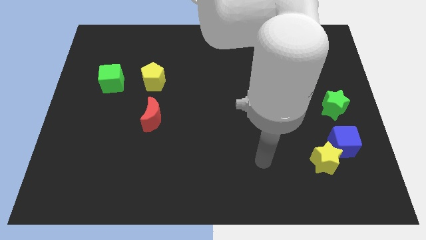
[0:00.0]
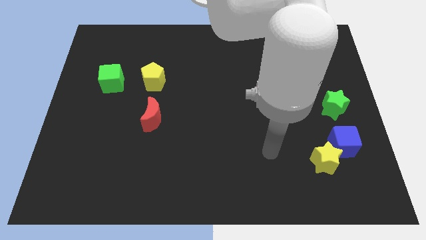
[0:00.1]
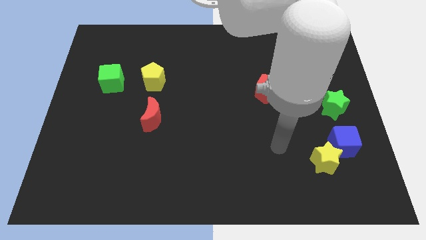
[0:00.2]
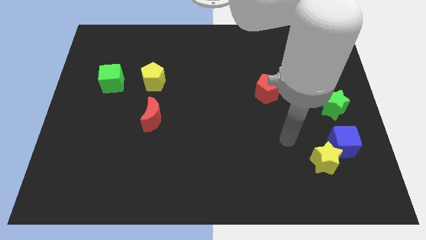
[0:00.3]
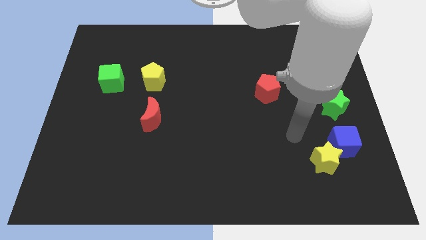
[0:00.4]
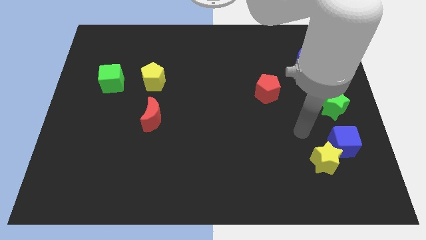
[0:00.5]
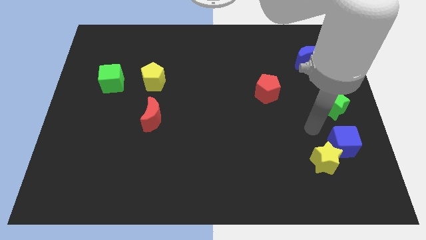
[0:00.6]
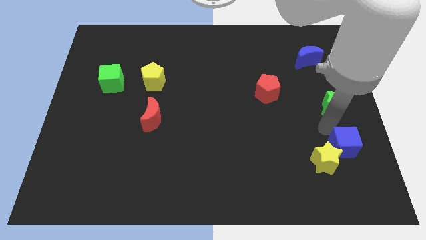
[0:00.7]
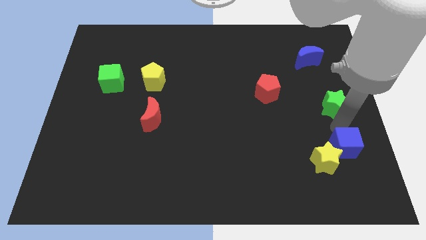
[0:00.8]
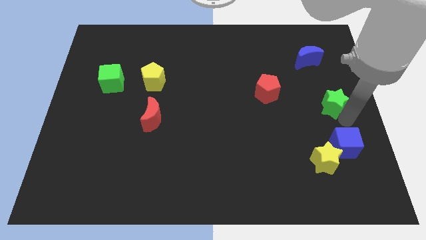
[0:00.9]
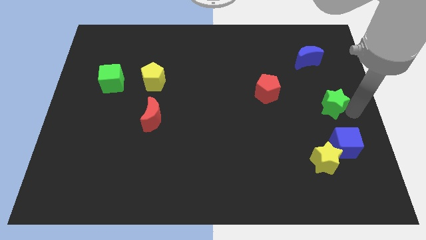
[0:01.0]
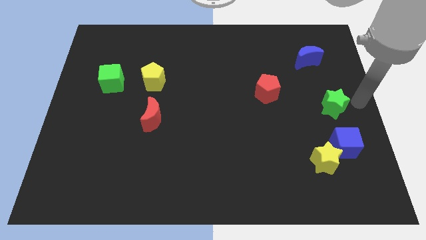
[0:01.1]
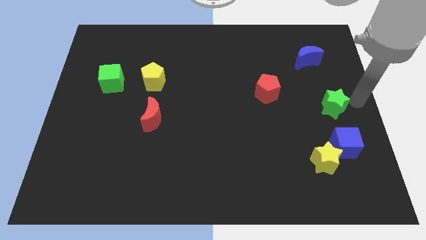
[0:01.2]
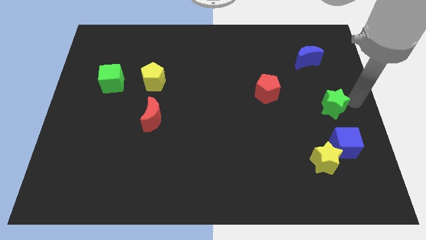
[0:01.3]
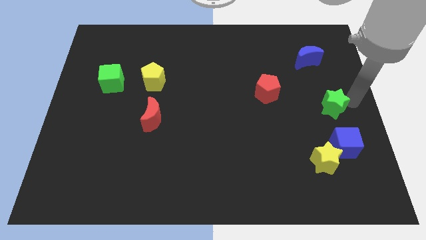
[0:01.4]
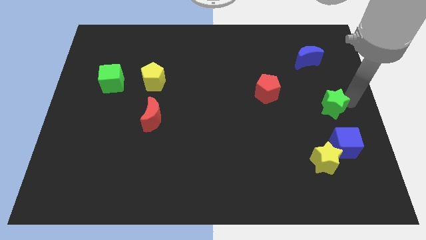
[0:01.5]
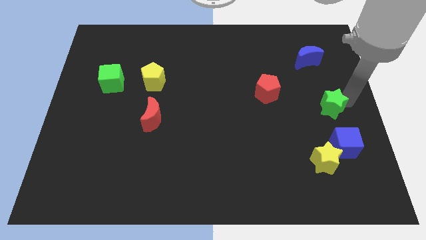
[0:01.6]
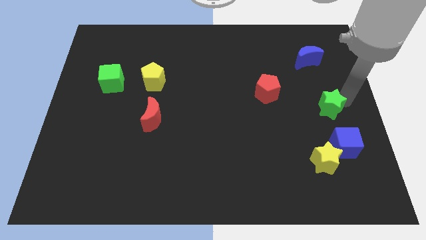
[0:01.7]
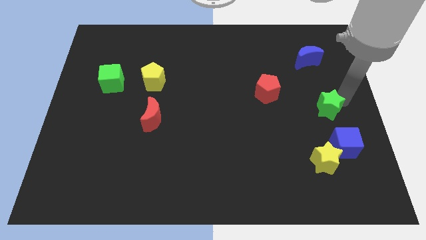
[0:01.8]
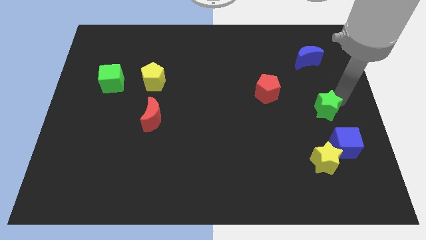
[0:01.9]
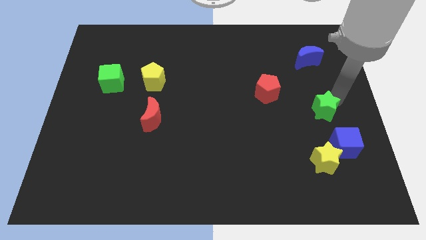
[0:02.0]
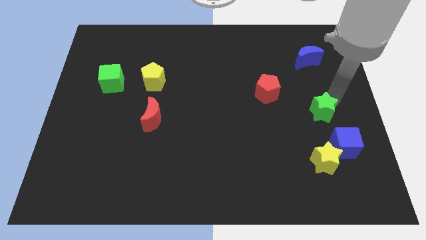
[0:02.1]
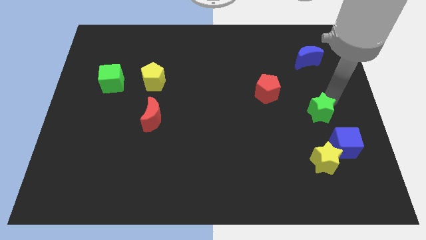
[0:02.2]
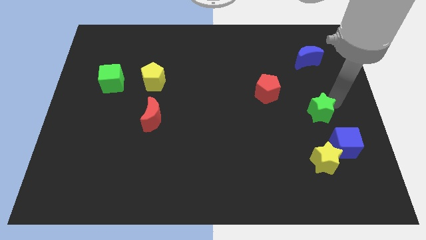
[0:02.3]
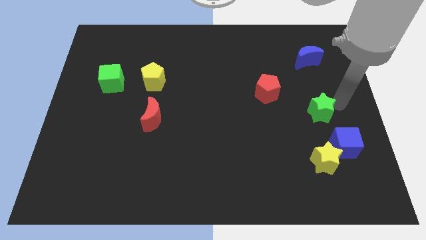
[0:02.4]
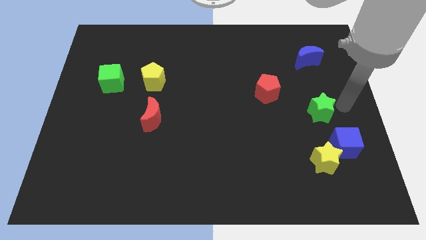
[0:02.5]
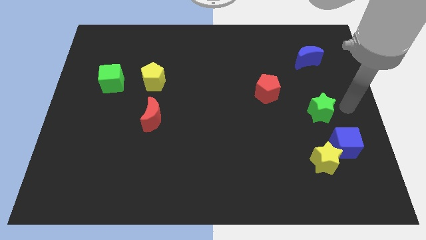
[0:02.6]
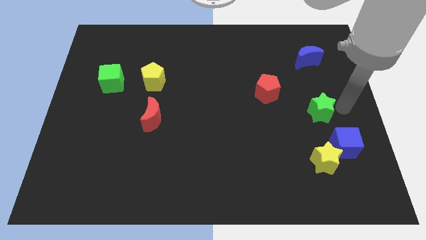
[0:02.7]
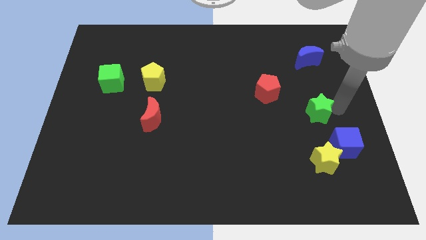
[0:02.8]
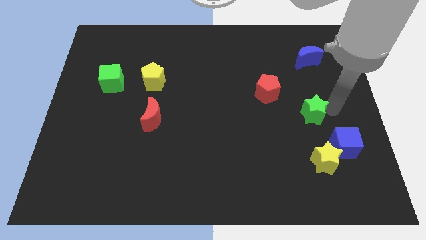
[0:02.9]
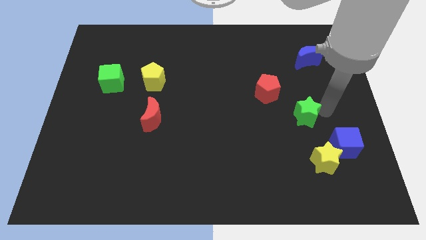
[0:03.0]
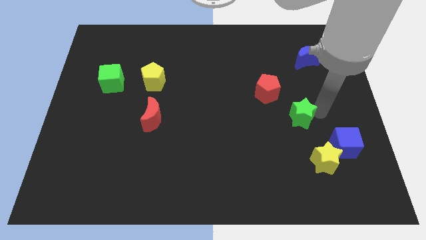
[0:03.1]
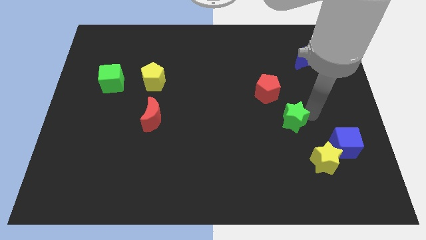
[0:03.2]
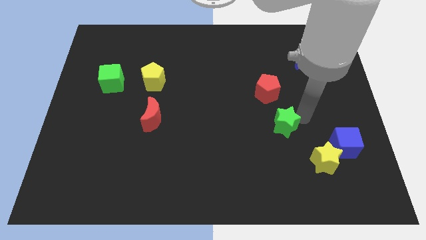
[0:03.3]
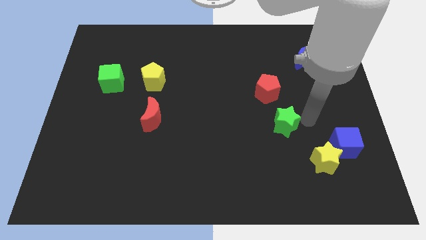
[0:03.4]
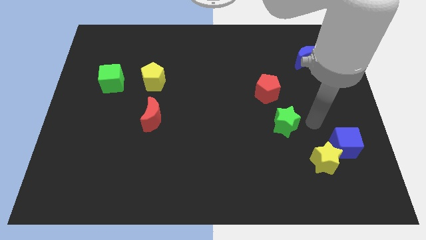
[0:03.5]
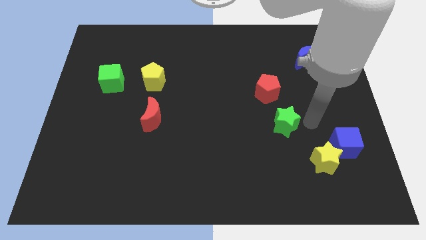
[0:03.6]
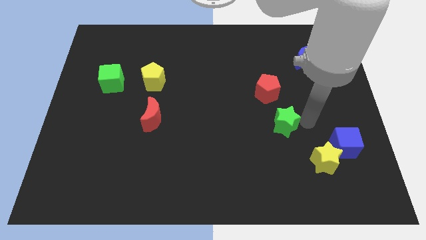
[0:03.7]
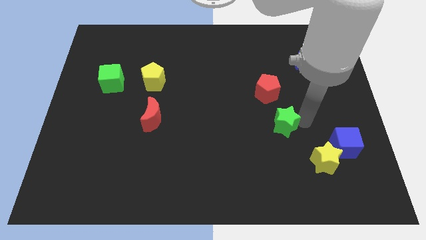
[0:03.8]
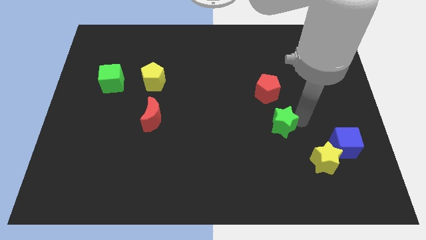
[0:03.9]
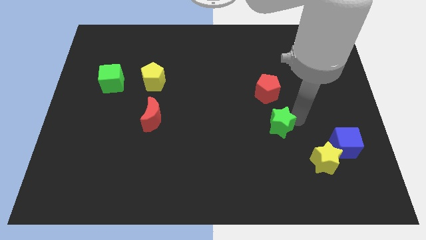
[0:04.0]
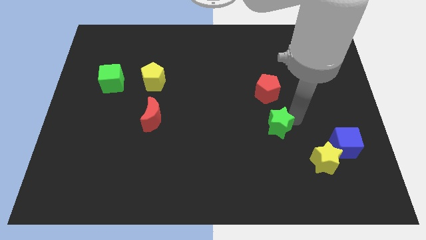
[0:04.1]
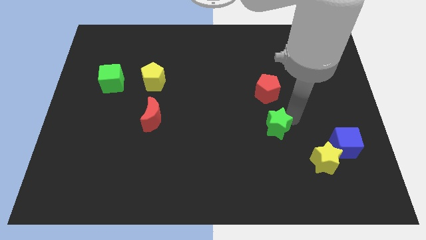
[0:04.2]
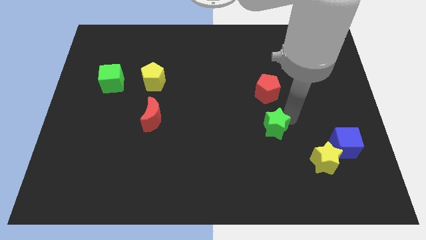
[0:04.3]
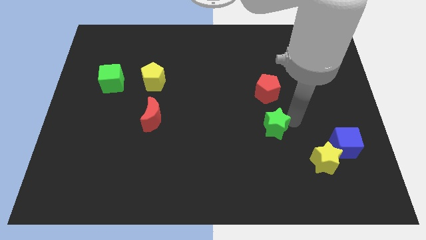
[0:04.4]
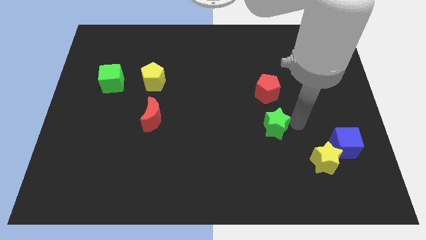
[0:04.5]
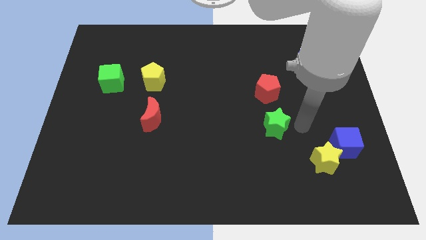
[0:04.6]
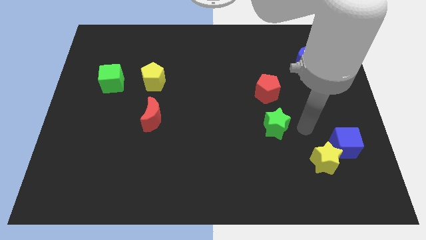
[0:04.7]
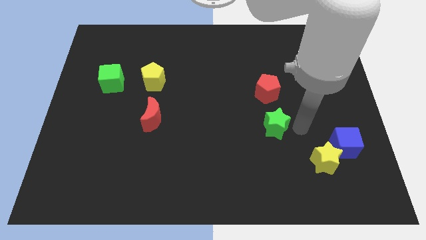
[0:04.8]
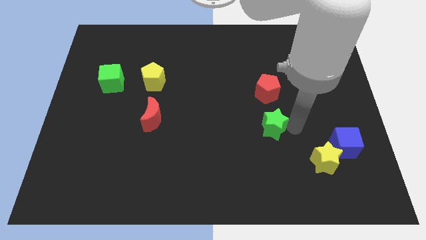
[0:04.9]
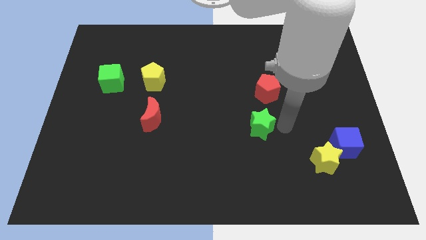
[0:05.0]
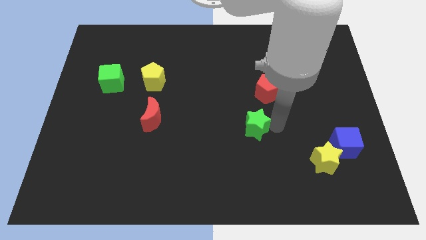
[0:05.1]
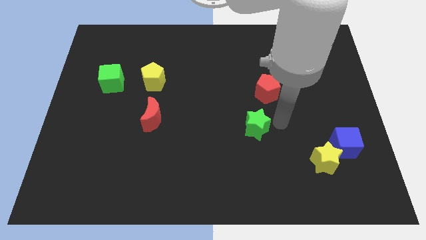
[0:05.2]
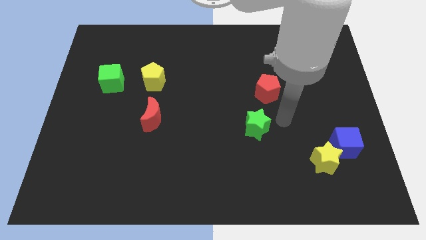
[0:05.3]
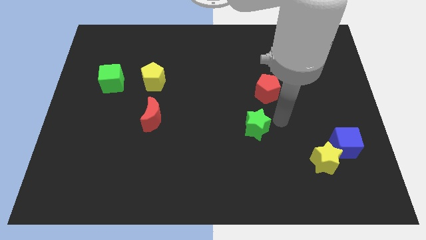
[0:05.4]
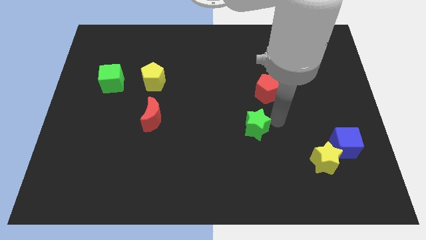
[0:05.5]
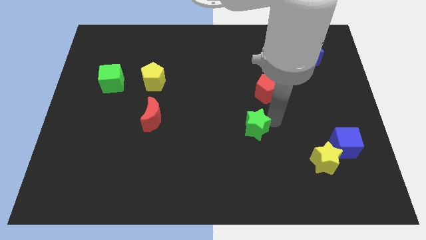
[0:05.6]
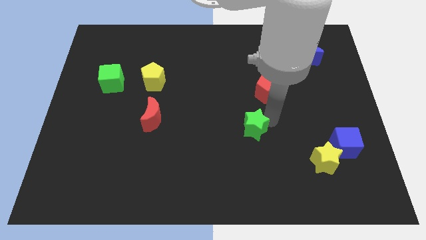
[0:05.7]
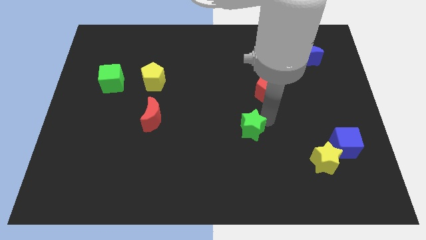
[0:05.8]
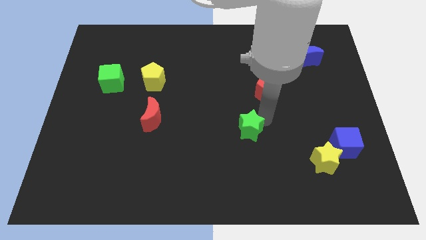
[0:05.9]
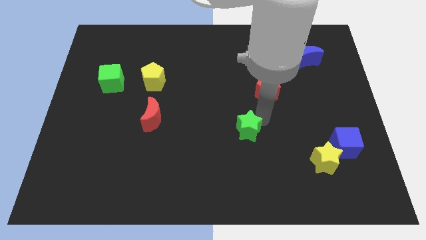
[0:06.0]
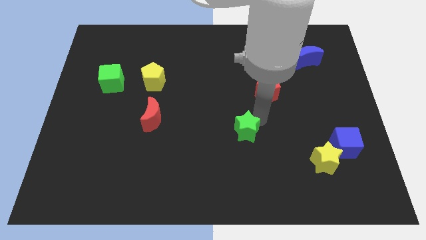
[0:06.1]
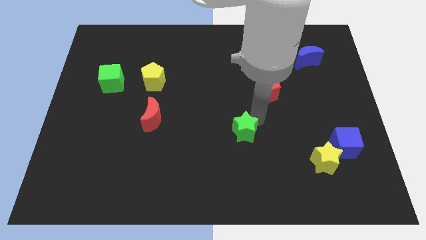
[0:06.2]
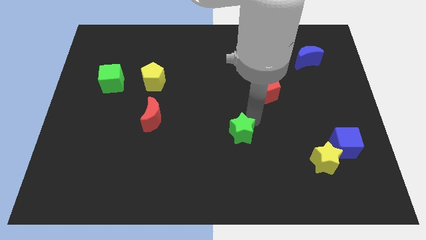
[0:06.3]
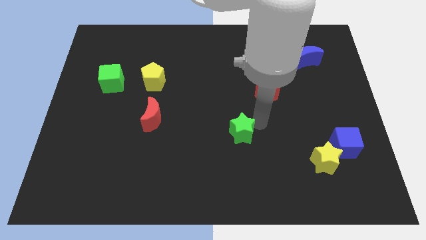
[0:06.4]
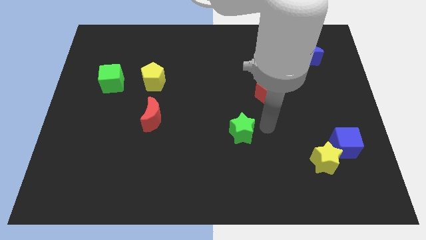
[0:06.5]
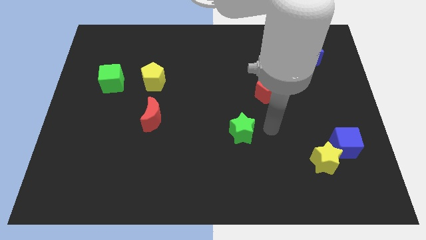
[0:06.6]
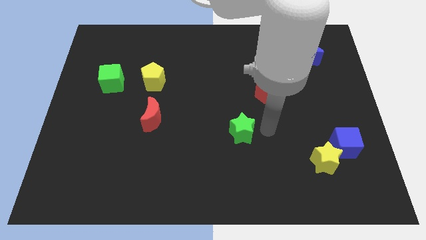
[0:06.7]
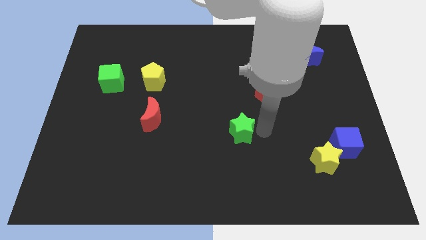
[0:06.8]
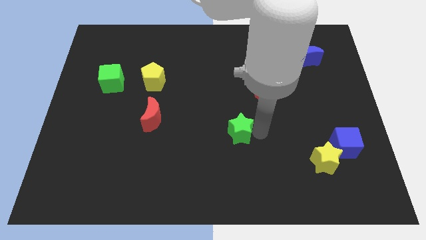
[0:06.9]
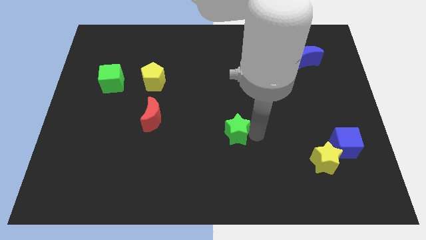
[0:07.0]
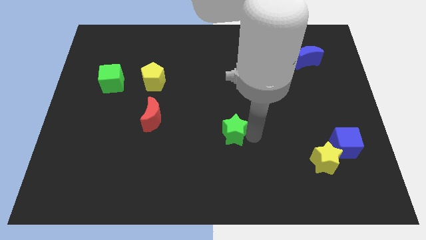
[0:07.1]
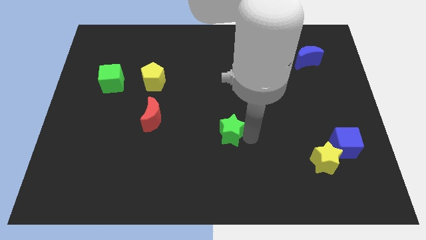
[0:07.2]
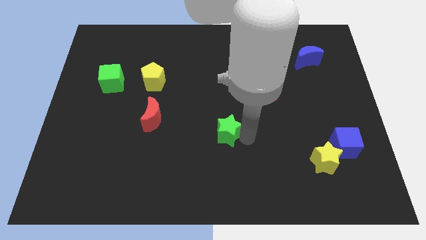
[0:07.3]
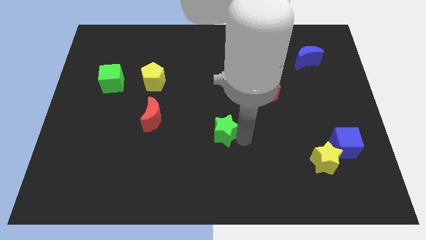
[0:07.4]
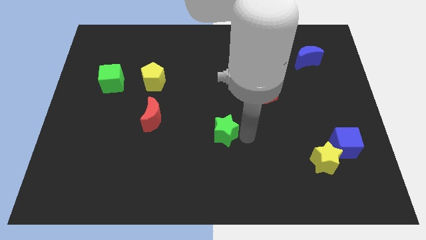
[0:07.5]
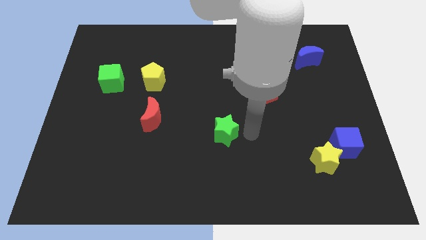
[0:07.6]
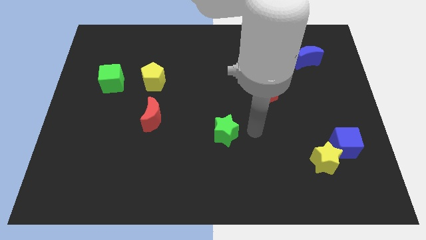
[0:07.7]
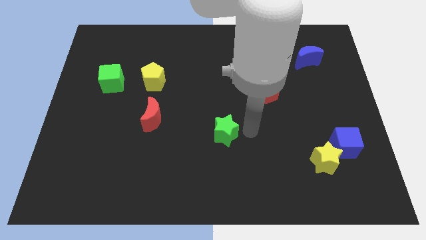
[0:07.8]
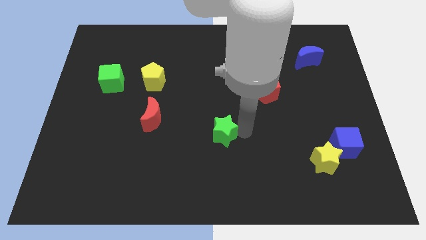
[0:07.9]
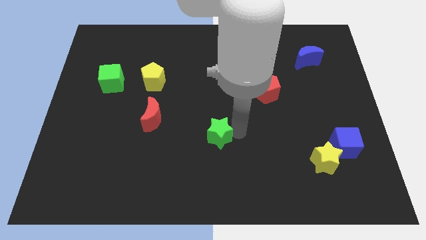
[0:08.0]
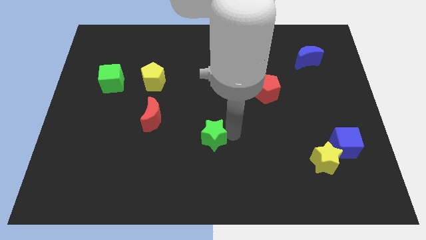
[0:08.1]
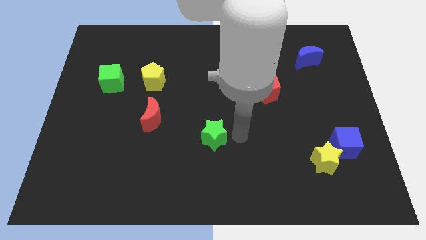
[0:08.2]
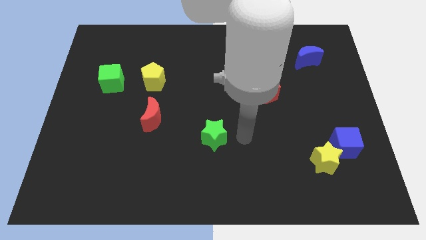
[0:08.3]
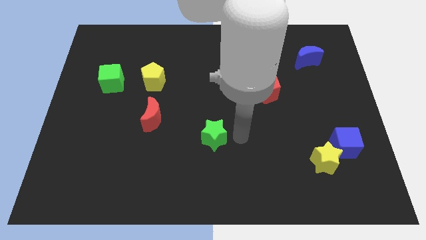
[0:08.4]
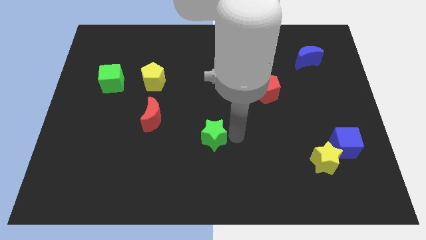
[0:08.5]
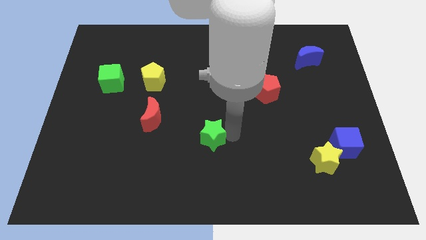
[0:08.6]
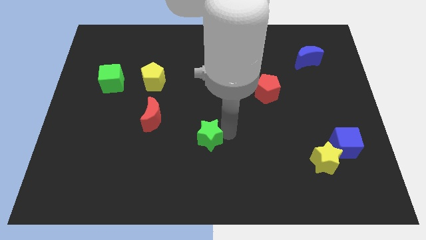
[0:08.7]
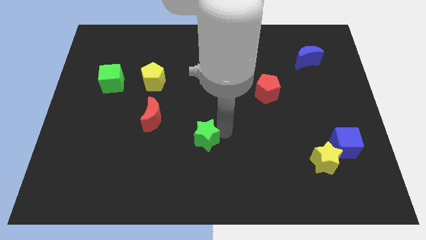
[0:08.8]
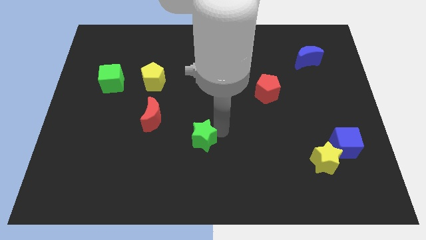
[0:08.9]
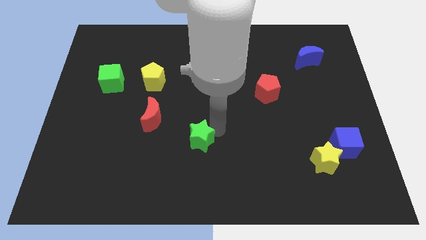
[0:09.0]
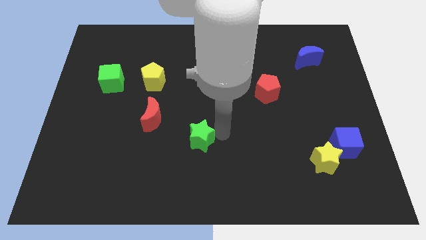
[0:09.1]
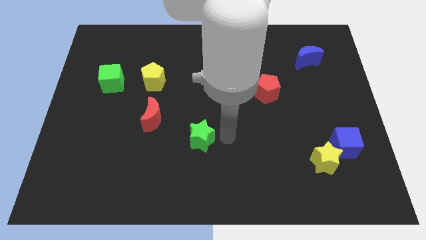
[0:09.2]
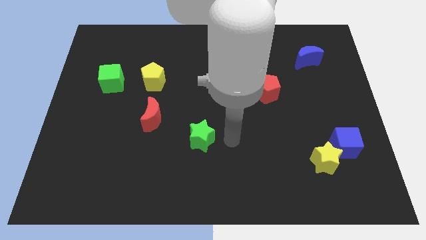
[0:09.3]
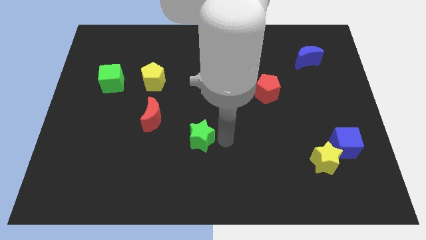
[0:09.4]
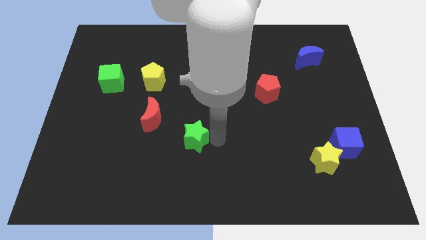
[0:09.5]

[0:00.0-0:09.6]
slide the green star to the bottom right of the red moon
